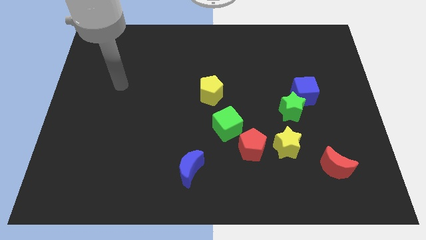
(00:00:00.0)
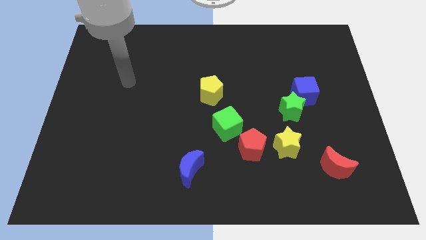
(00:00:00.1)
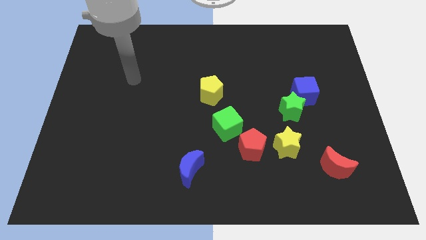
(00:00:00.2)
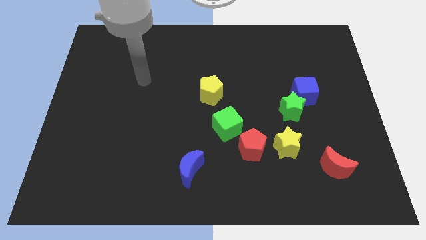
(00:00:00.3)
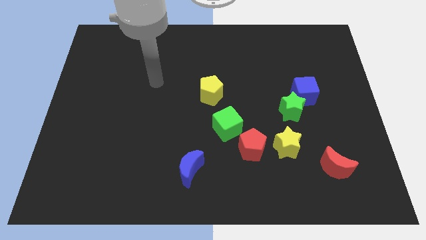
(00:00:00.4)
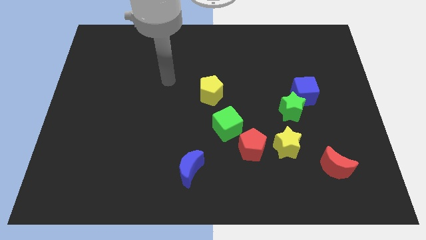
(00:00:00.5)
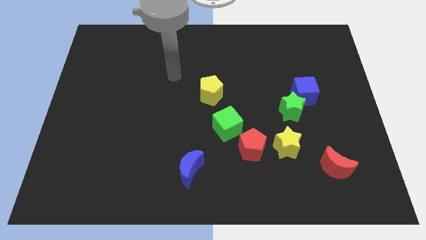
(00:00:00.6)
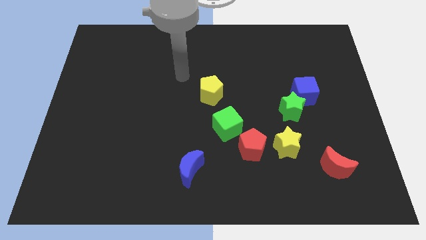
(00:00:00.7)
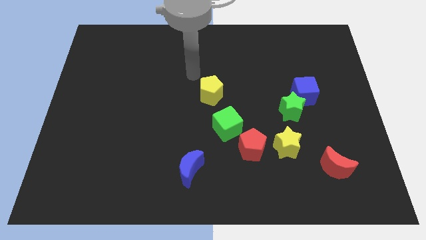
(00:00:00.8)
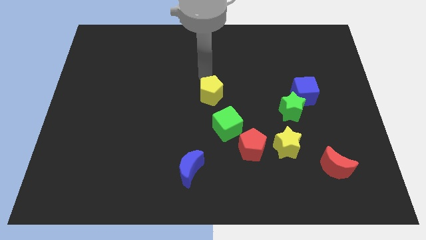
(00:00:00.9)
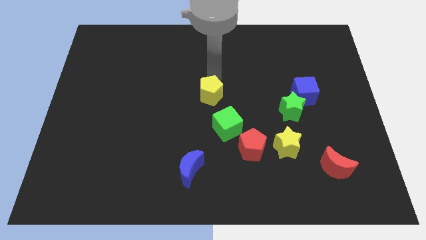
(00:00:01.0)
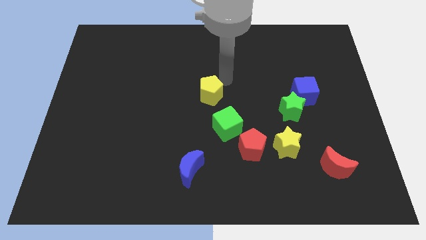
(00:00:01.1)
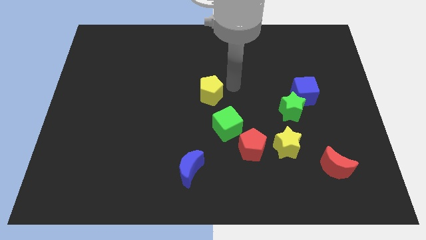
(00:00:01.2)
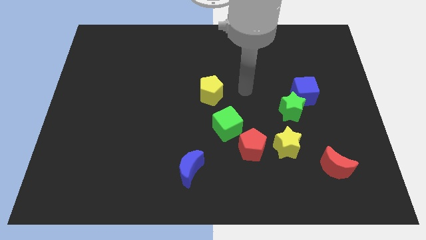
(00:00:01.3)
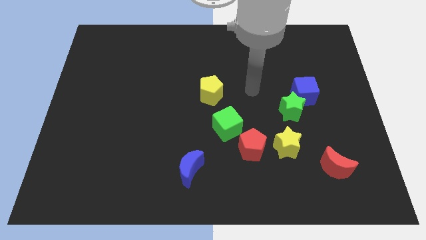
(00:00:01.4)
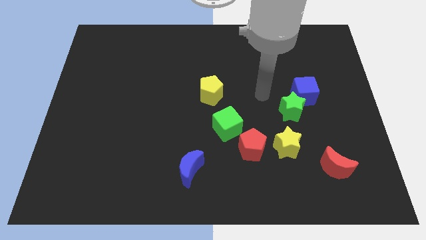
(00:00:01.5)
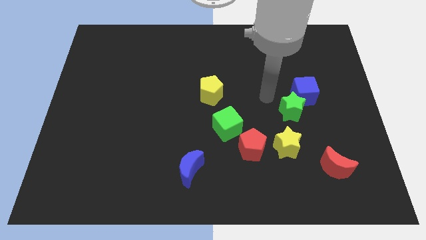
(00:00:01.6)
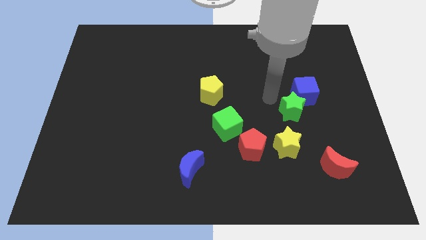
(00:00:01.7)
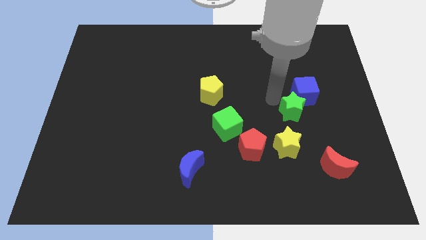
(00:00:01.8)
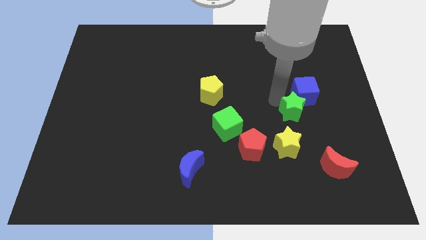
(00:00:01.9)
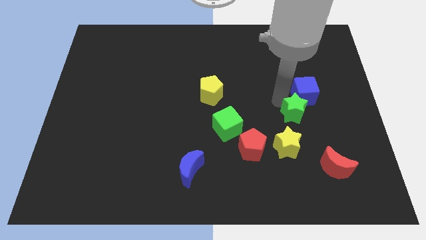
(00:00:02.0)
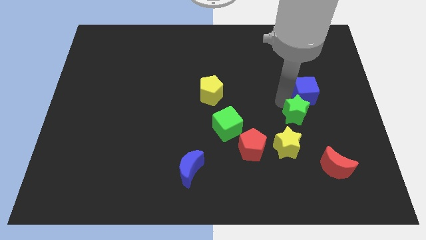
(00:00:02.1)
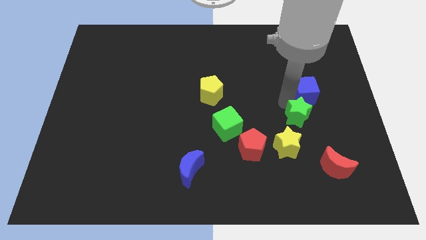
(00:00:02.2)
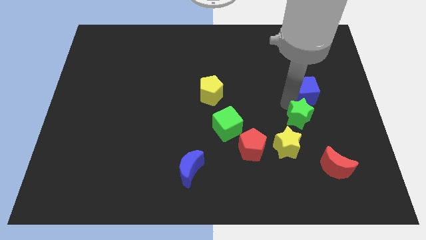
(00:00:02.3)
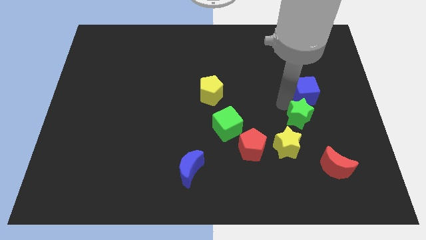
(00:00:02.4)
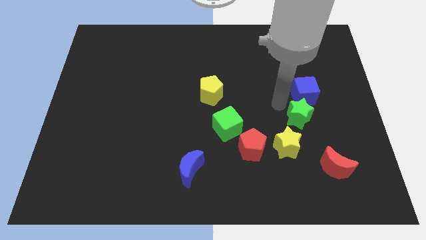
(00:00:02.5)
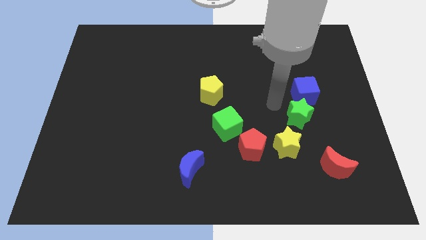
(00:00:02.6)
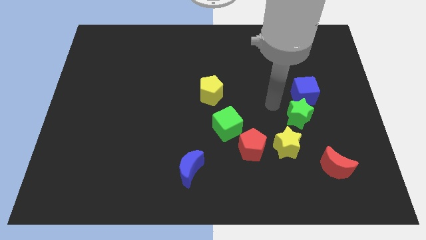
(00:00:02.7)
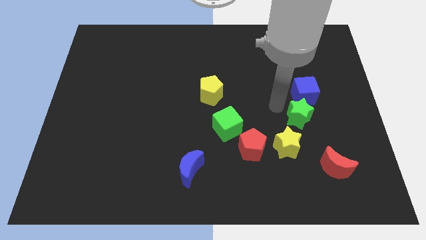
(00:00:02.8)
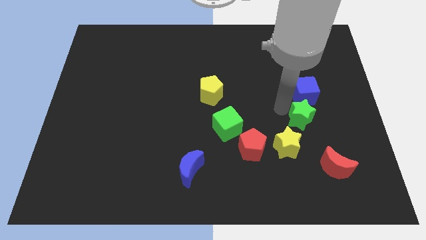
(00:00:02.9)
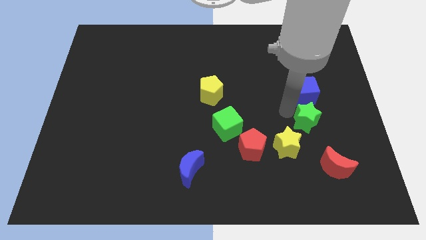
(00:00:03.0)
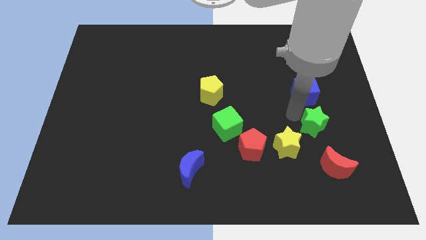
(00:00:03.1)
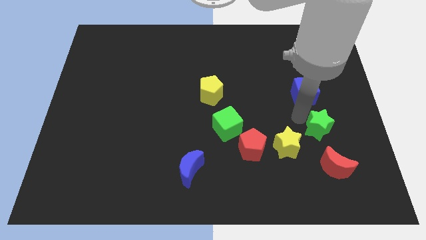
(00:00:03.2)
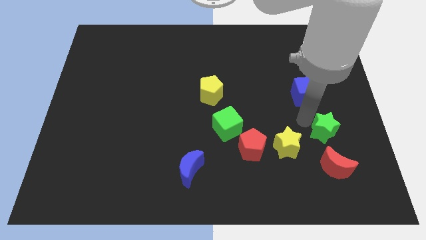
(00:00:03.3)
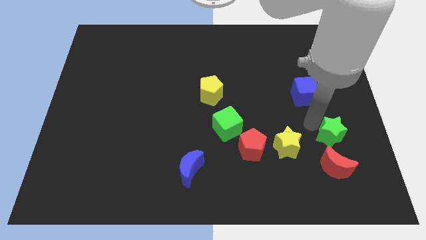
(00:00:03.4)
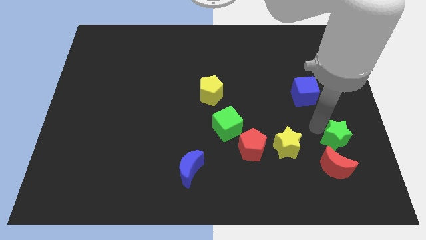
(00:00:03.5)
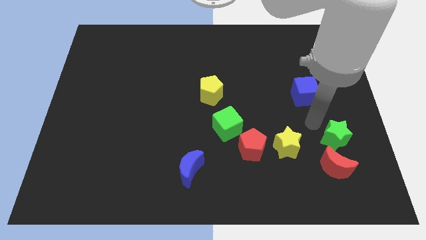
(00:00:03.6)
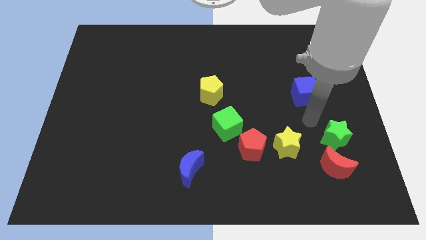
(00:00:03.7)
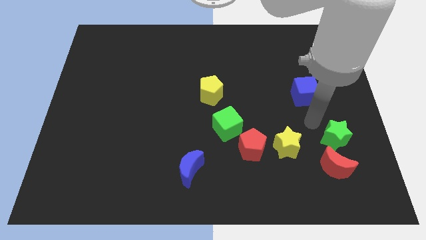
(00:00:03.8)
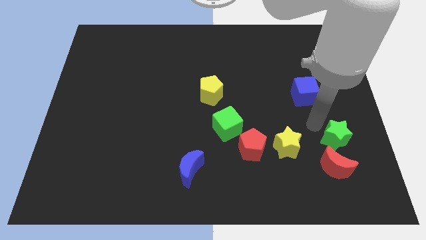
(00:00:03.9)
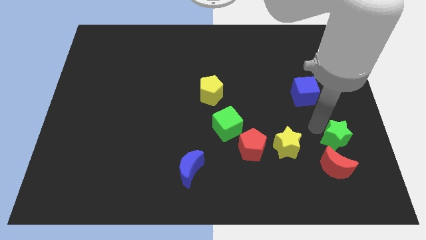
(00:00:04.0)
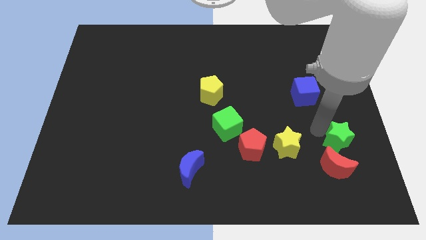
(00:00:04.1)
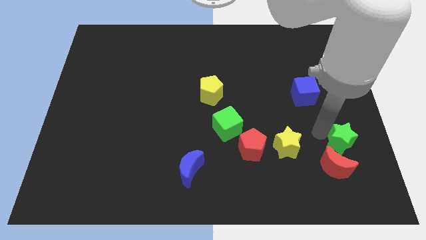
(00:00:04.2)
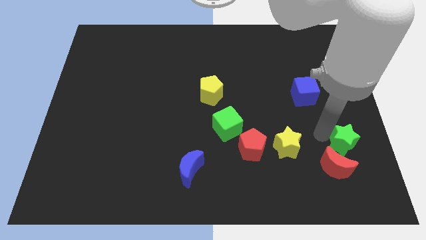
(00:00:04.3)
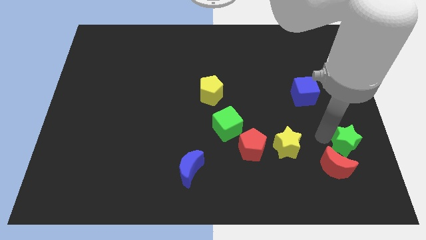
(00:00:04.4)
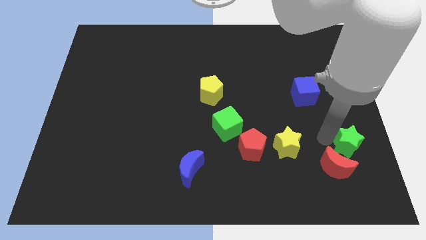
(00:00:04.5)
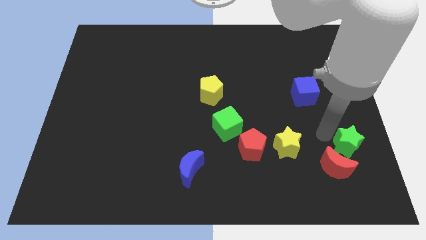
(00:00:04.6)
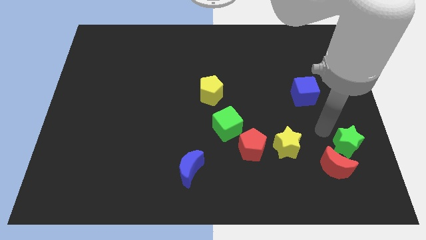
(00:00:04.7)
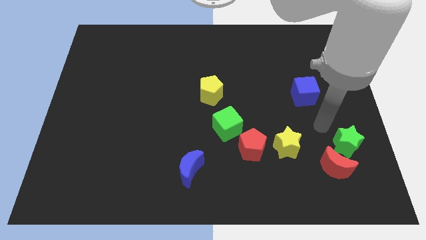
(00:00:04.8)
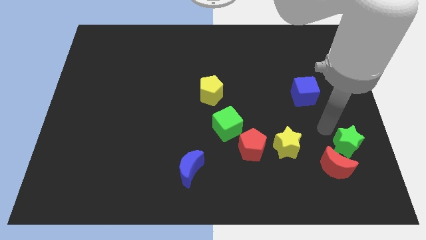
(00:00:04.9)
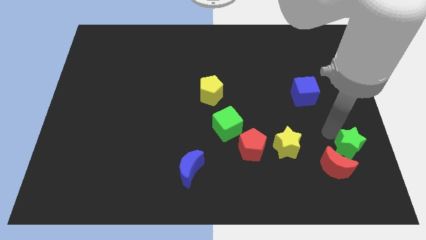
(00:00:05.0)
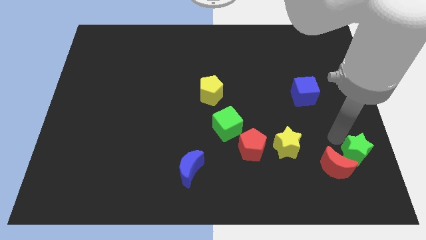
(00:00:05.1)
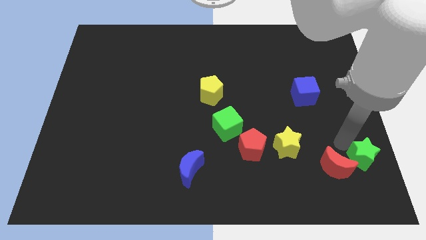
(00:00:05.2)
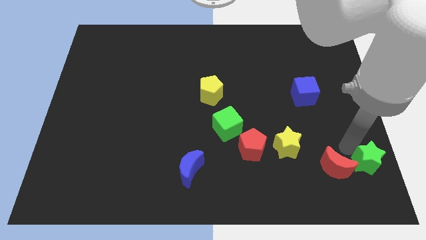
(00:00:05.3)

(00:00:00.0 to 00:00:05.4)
put the green star to the lower right corner

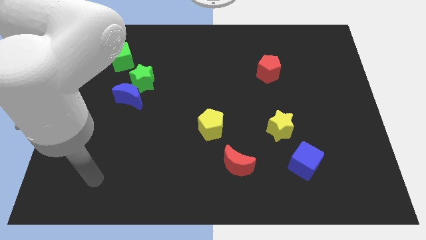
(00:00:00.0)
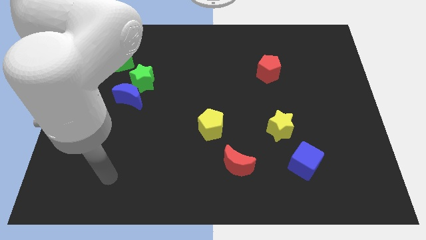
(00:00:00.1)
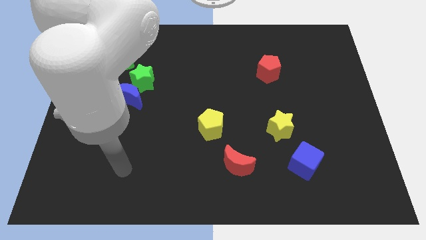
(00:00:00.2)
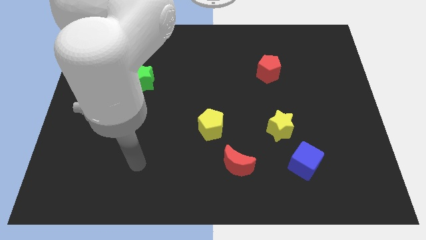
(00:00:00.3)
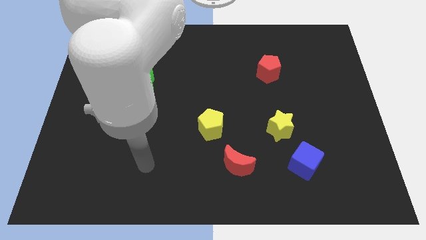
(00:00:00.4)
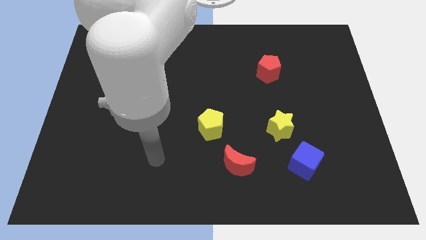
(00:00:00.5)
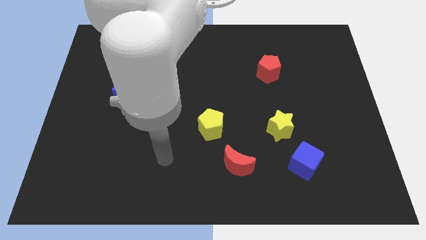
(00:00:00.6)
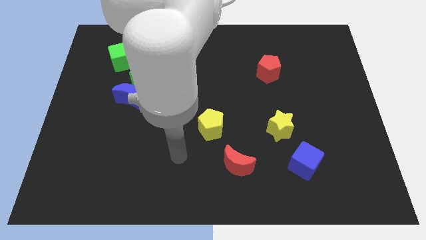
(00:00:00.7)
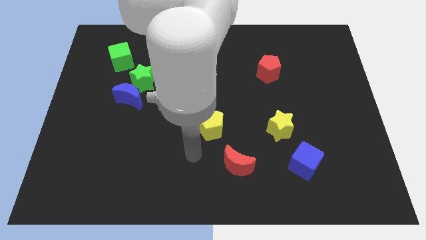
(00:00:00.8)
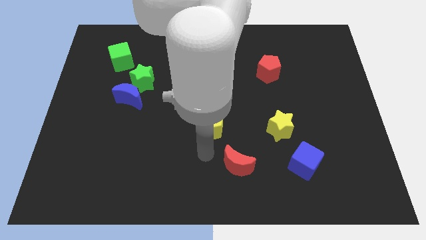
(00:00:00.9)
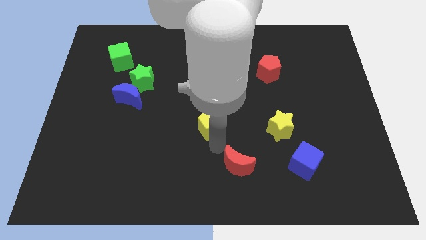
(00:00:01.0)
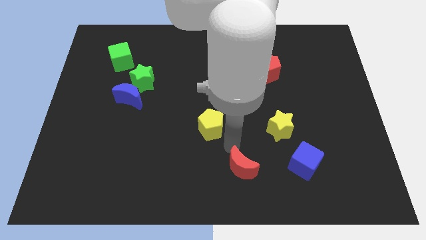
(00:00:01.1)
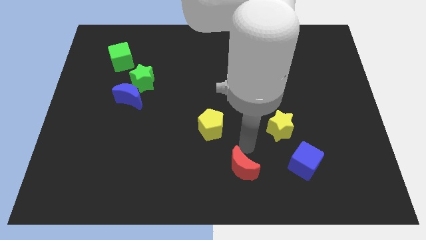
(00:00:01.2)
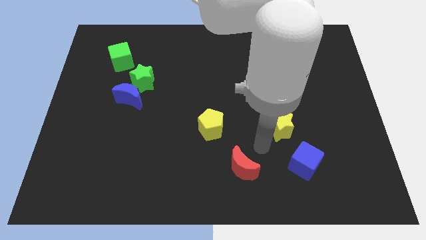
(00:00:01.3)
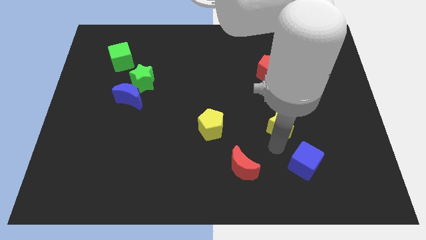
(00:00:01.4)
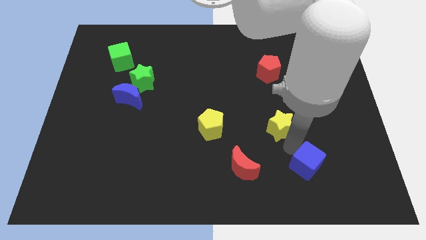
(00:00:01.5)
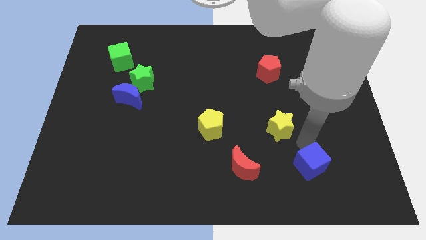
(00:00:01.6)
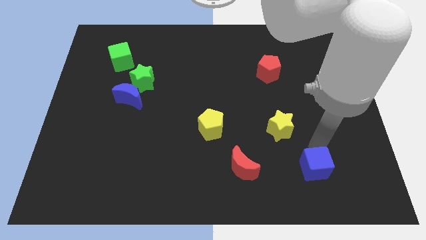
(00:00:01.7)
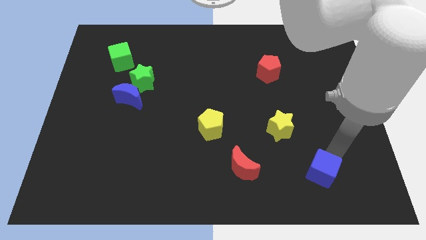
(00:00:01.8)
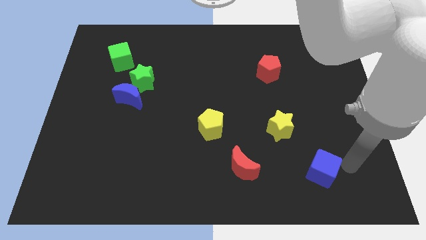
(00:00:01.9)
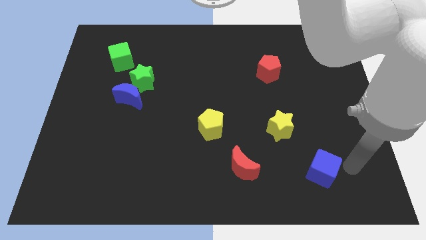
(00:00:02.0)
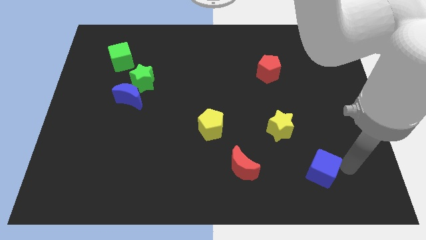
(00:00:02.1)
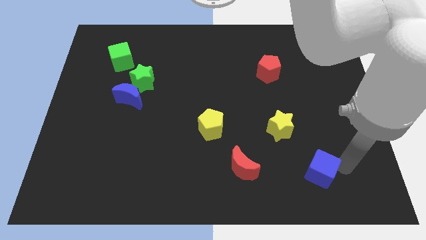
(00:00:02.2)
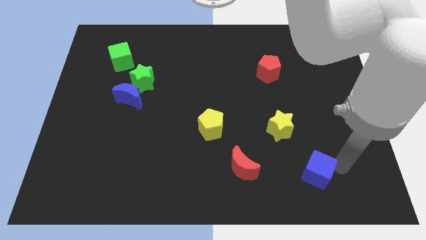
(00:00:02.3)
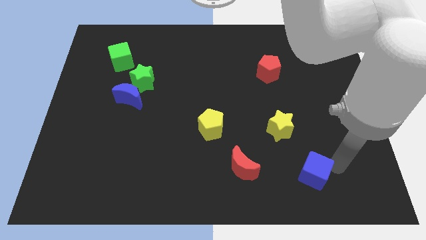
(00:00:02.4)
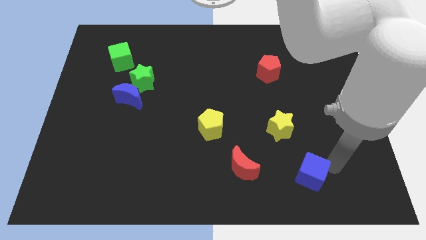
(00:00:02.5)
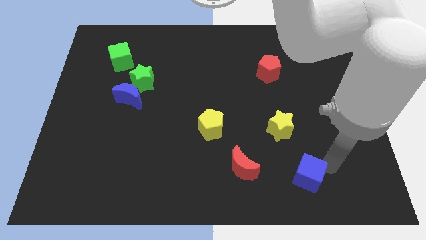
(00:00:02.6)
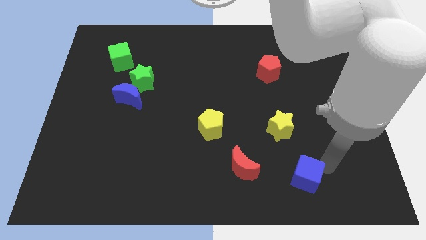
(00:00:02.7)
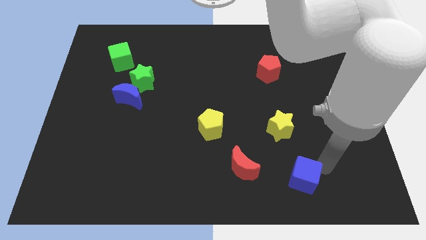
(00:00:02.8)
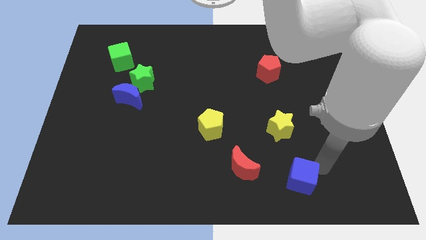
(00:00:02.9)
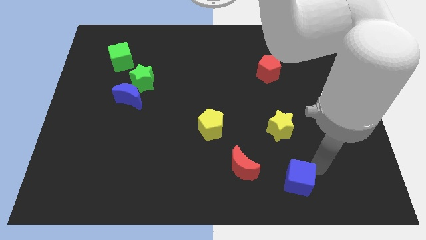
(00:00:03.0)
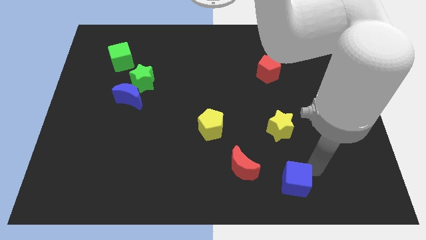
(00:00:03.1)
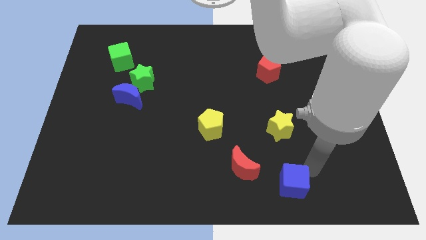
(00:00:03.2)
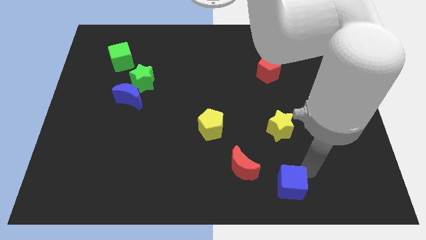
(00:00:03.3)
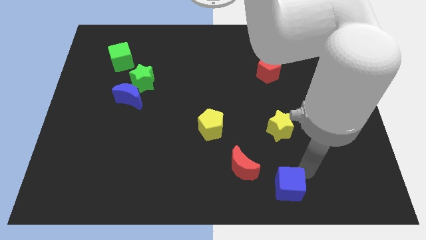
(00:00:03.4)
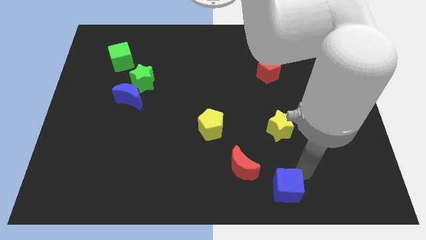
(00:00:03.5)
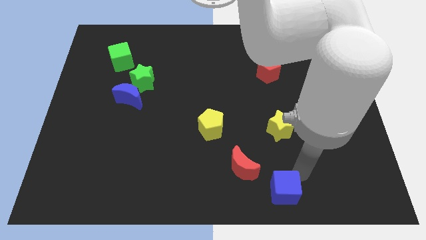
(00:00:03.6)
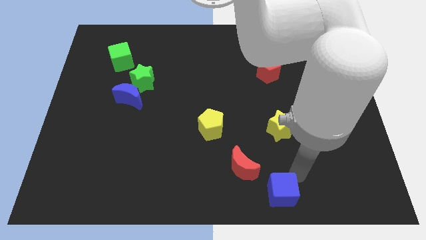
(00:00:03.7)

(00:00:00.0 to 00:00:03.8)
move the blue cube to the bottom side
